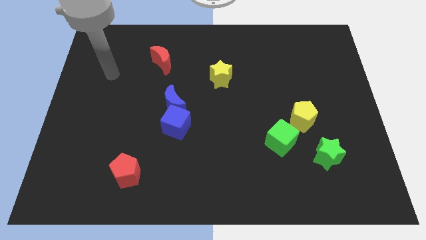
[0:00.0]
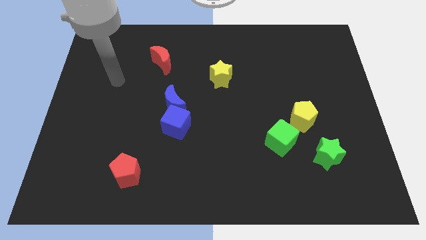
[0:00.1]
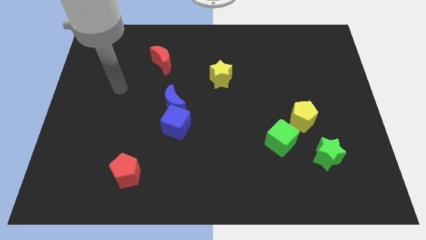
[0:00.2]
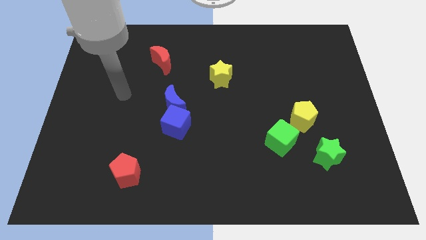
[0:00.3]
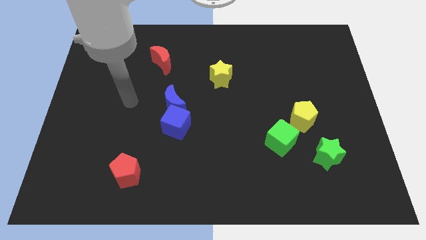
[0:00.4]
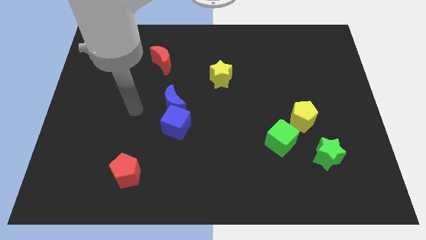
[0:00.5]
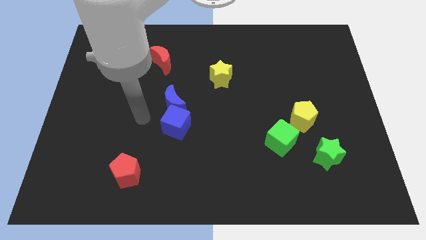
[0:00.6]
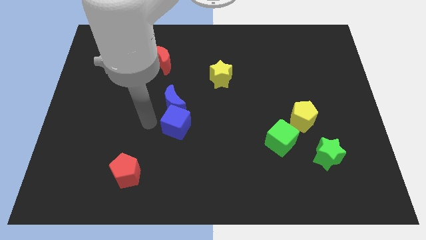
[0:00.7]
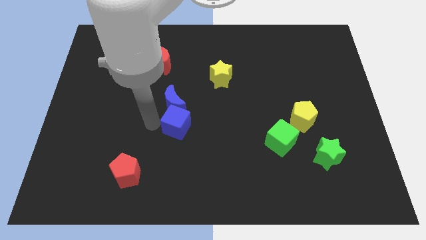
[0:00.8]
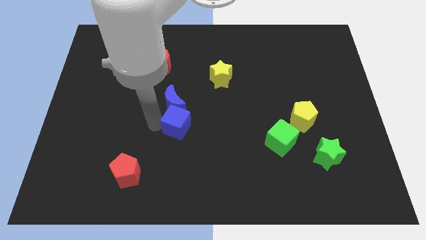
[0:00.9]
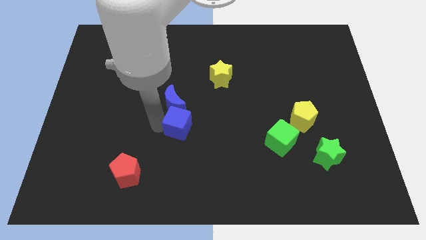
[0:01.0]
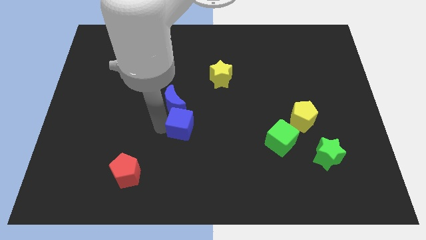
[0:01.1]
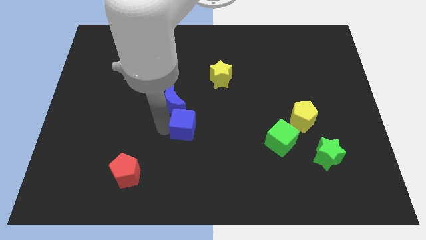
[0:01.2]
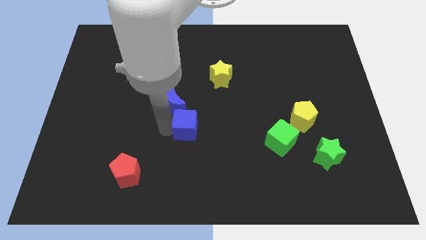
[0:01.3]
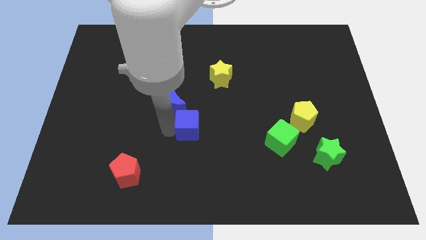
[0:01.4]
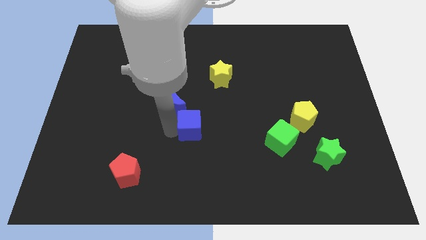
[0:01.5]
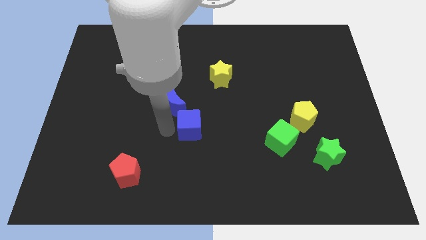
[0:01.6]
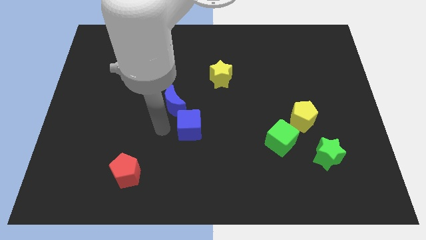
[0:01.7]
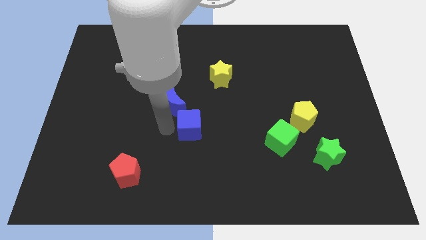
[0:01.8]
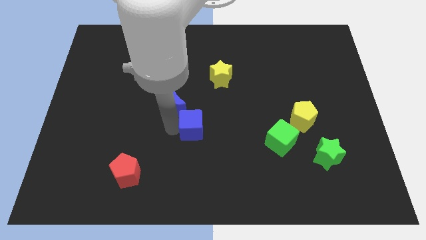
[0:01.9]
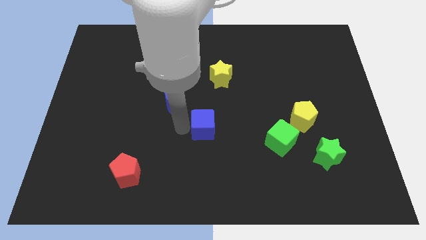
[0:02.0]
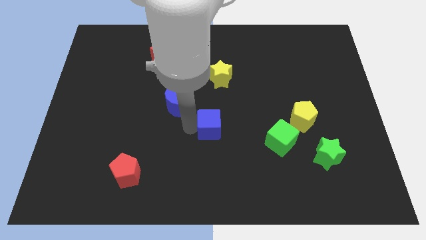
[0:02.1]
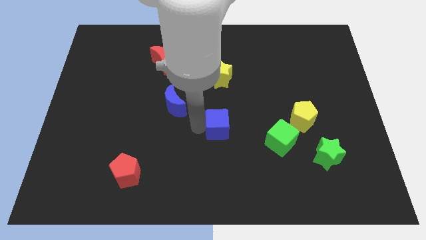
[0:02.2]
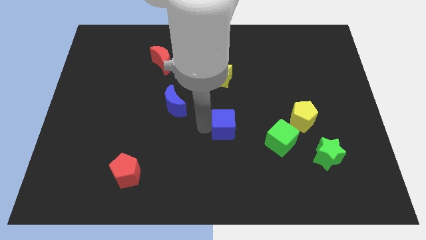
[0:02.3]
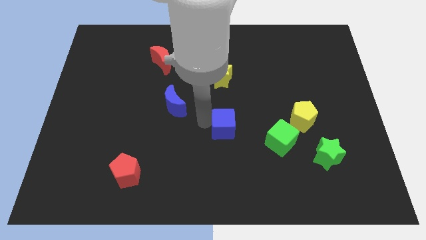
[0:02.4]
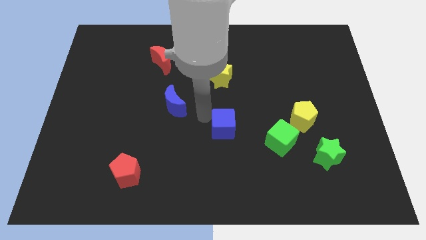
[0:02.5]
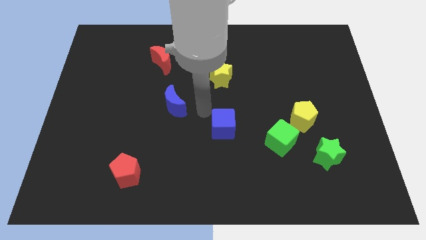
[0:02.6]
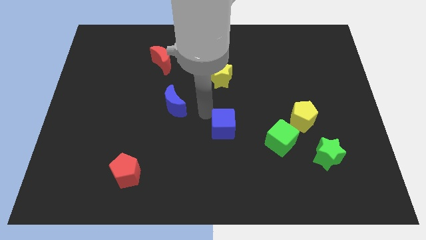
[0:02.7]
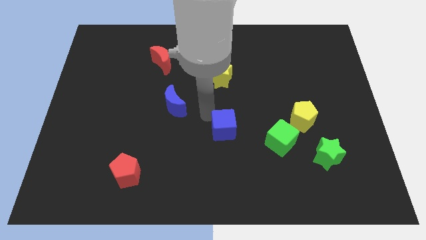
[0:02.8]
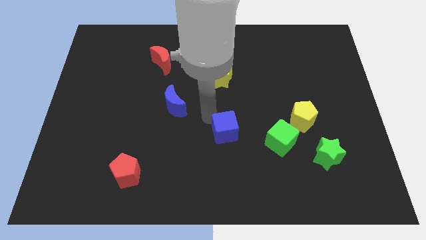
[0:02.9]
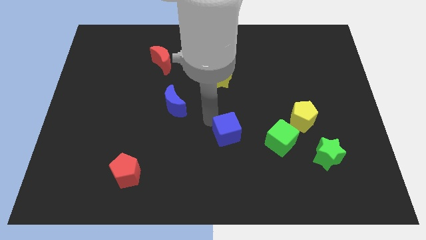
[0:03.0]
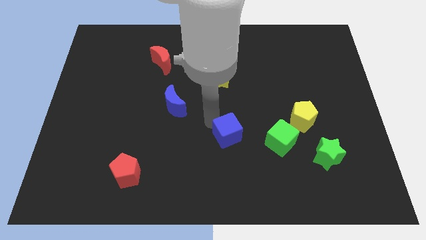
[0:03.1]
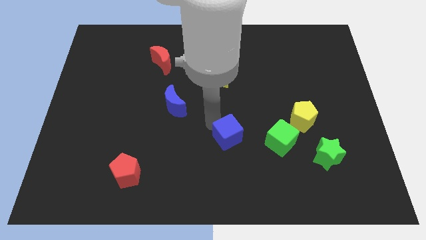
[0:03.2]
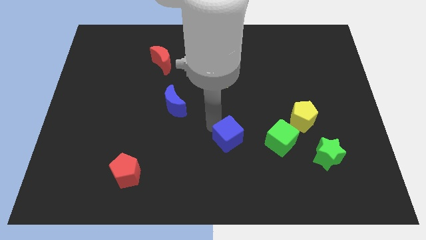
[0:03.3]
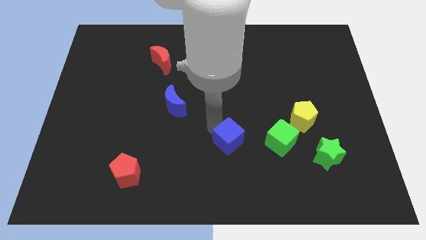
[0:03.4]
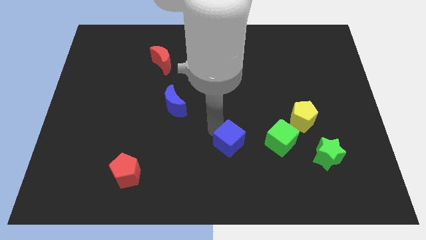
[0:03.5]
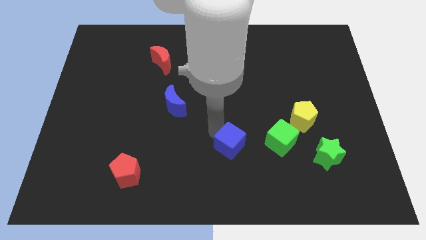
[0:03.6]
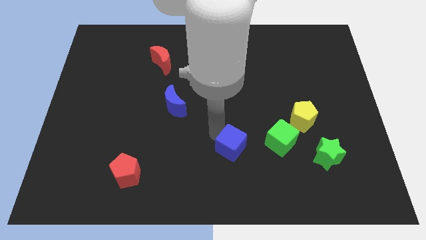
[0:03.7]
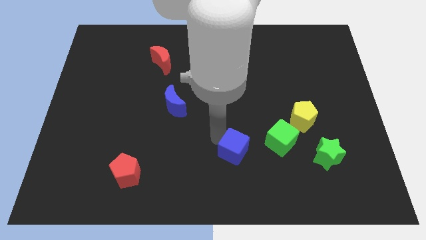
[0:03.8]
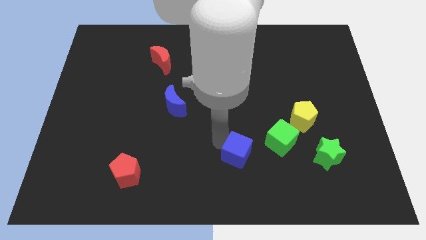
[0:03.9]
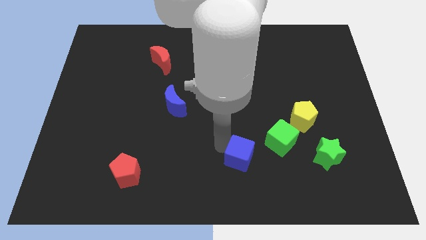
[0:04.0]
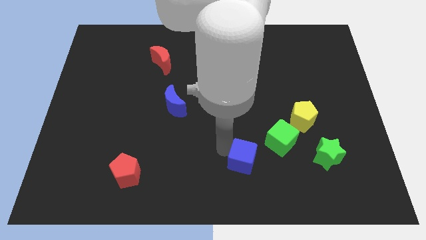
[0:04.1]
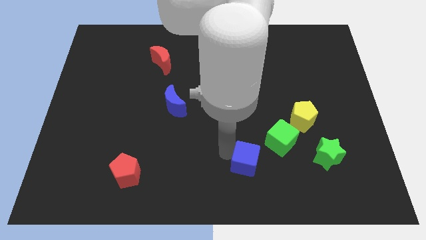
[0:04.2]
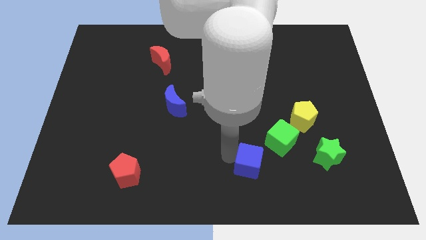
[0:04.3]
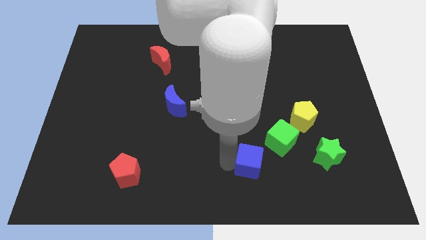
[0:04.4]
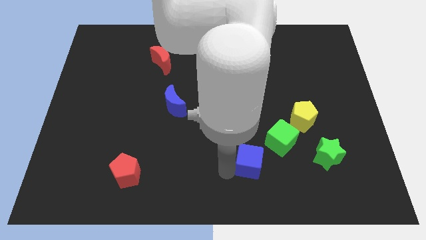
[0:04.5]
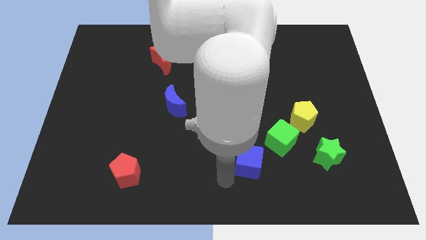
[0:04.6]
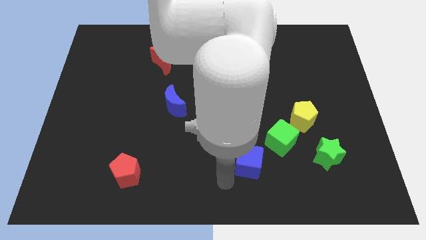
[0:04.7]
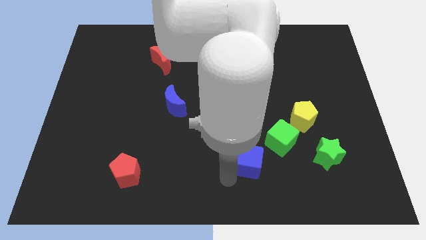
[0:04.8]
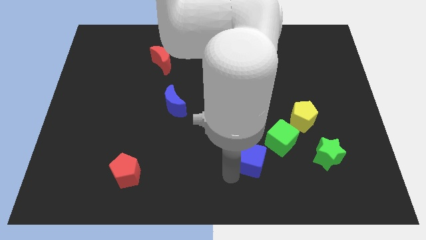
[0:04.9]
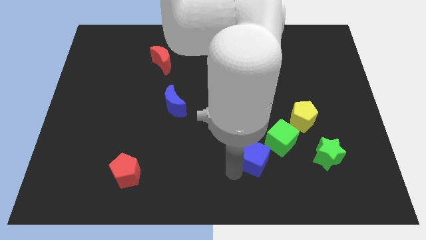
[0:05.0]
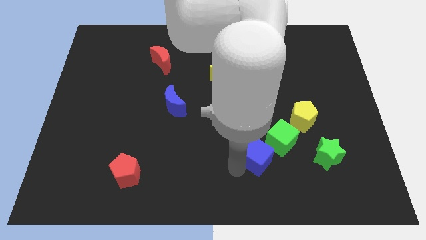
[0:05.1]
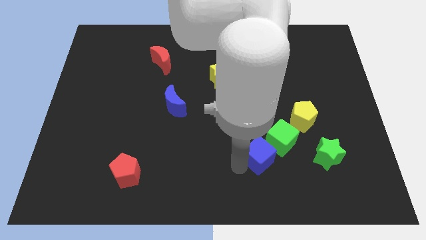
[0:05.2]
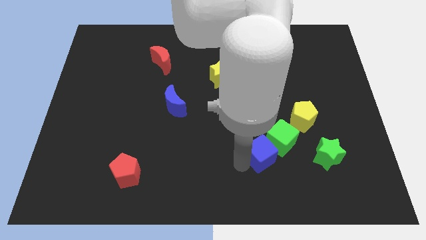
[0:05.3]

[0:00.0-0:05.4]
put the blue cube next to the green cube

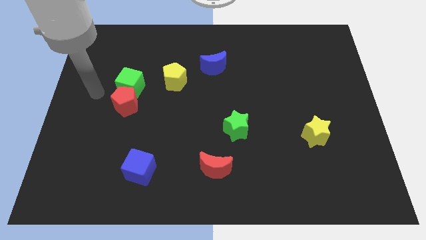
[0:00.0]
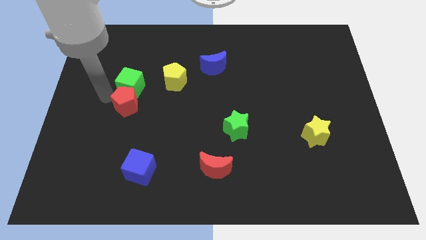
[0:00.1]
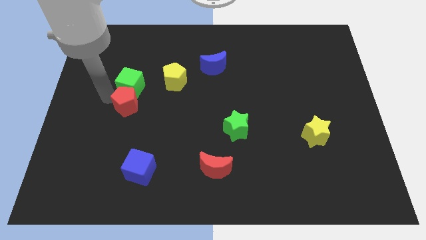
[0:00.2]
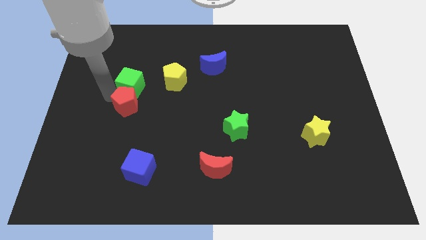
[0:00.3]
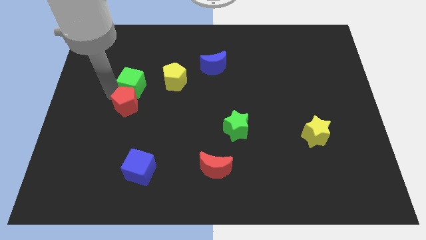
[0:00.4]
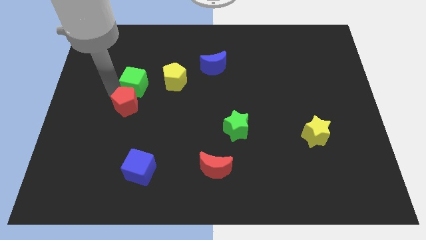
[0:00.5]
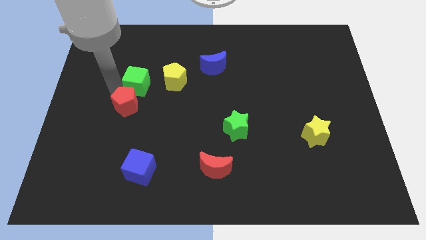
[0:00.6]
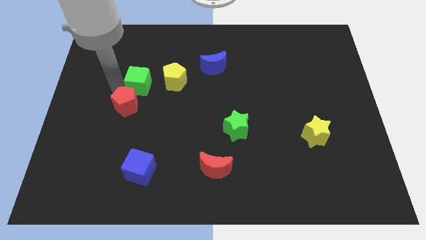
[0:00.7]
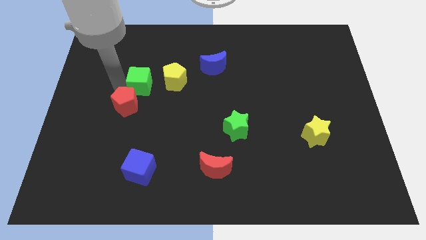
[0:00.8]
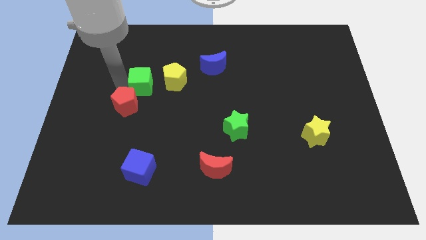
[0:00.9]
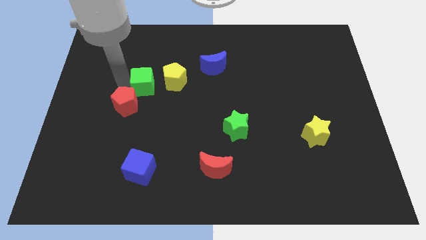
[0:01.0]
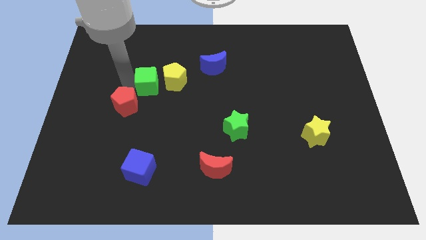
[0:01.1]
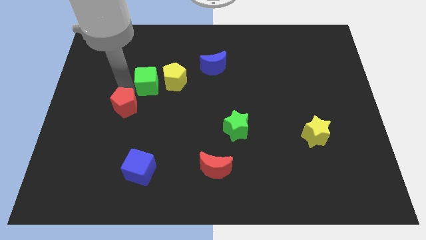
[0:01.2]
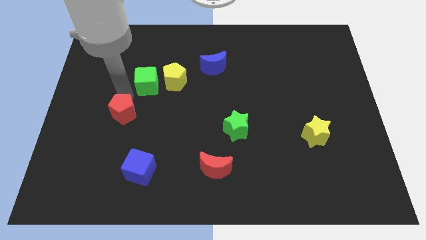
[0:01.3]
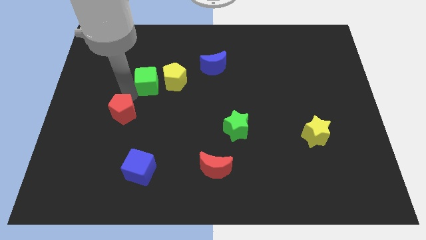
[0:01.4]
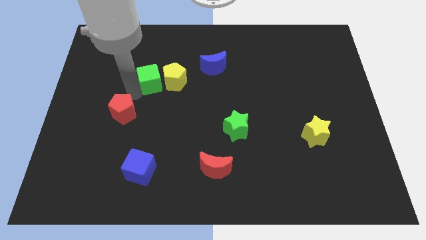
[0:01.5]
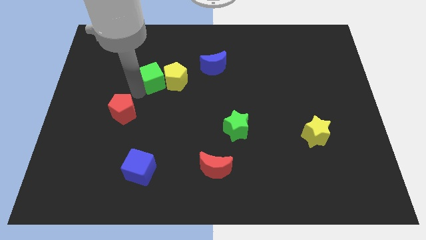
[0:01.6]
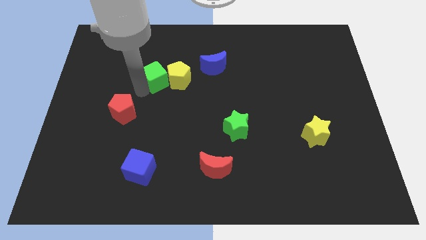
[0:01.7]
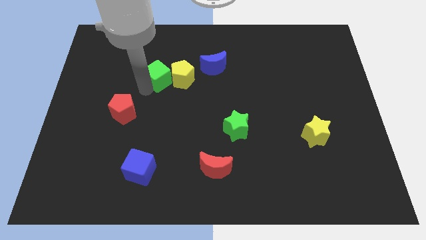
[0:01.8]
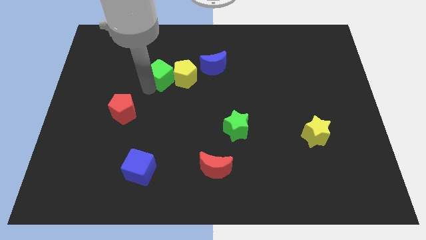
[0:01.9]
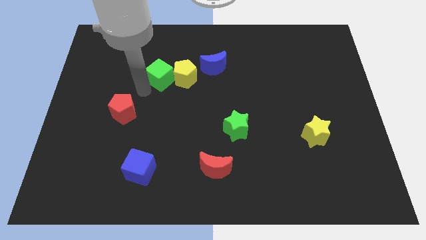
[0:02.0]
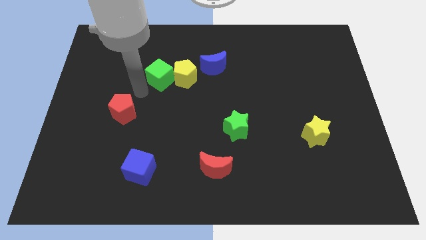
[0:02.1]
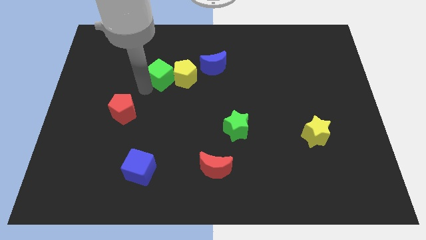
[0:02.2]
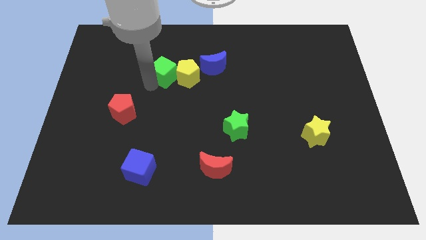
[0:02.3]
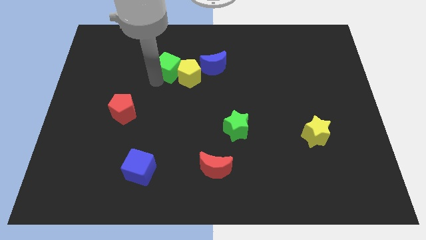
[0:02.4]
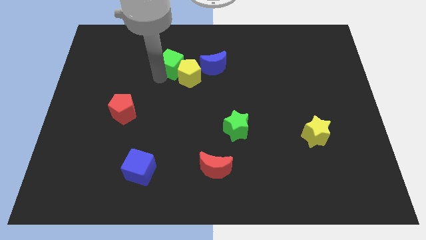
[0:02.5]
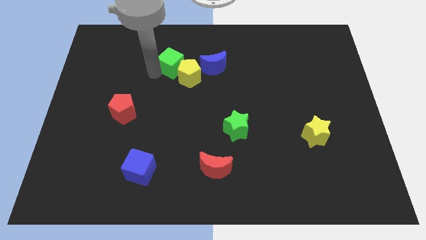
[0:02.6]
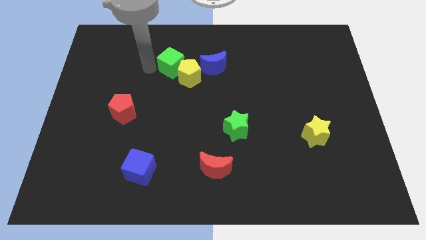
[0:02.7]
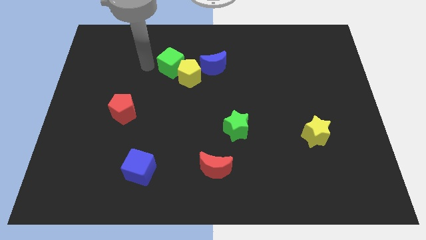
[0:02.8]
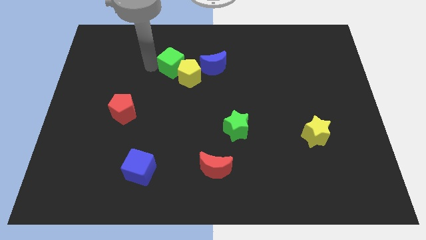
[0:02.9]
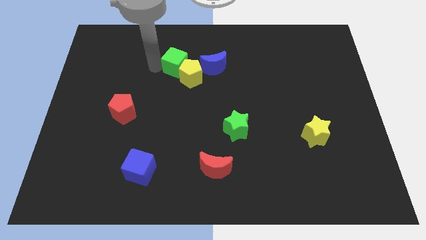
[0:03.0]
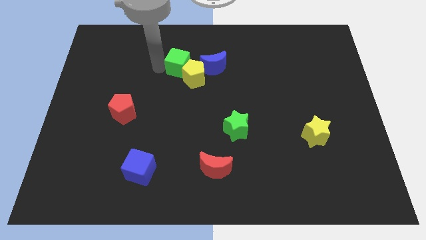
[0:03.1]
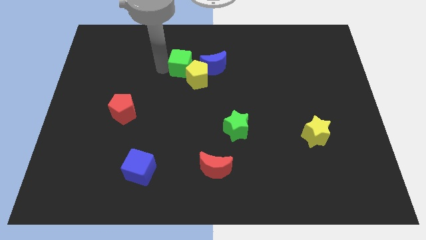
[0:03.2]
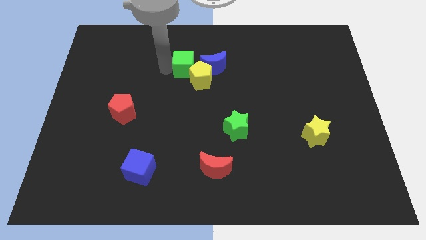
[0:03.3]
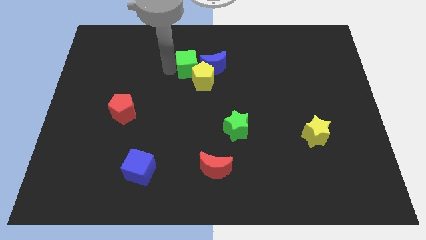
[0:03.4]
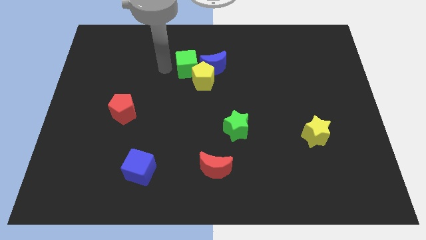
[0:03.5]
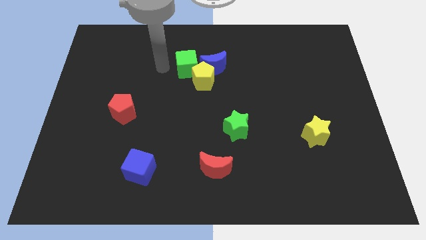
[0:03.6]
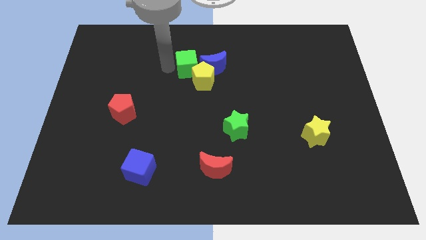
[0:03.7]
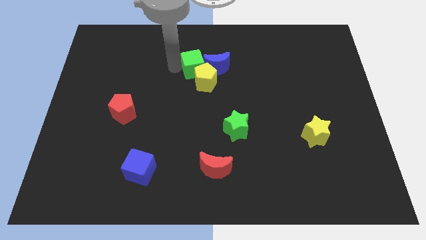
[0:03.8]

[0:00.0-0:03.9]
put the green cube towards the blue moon
